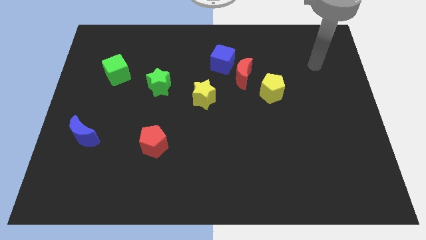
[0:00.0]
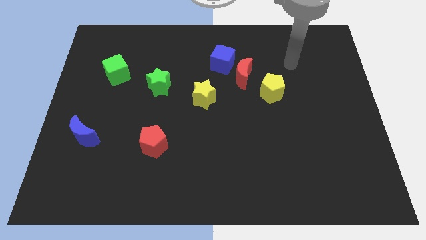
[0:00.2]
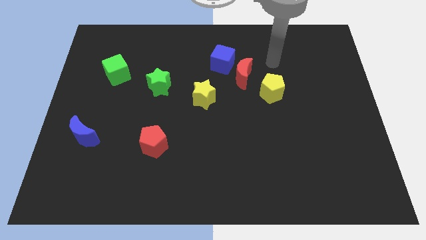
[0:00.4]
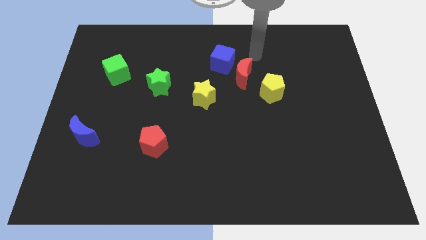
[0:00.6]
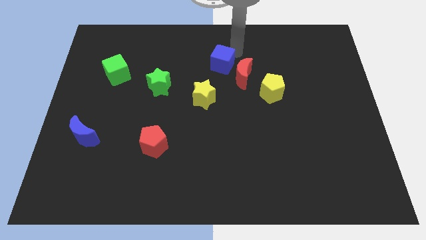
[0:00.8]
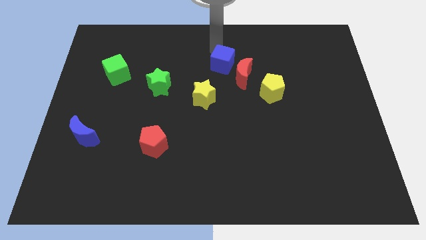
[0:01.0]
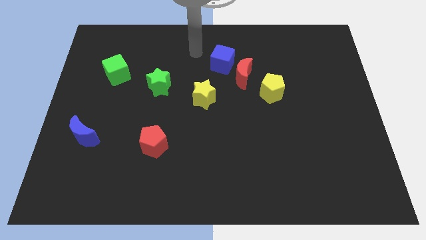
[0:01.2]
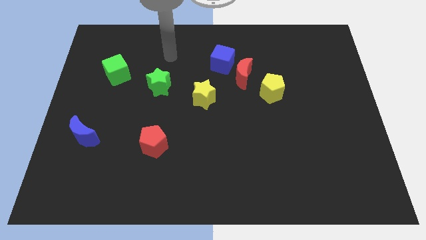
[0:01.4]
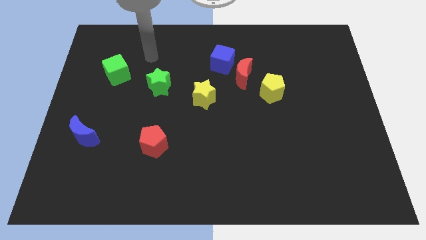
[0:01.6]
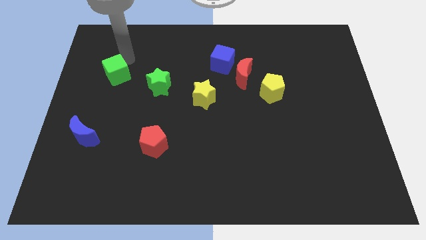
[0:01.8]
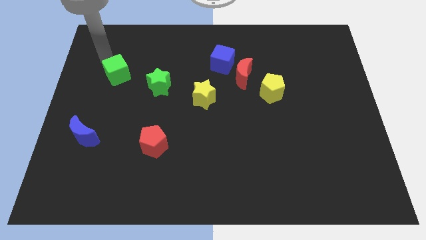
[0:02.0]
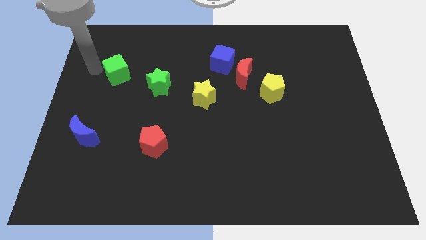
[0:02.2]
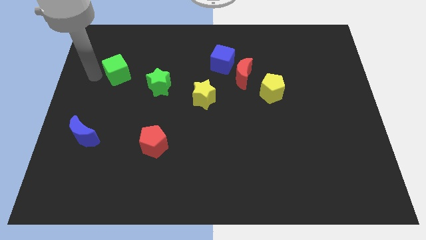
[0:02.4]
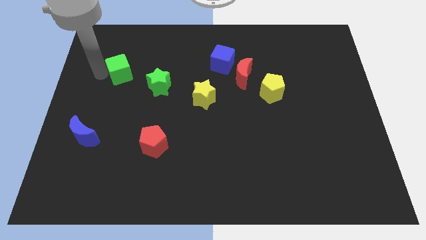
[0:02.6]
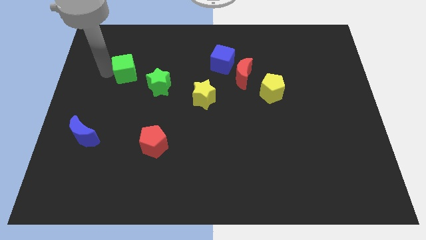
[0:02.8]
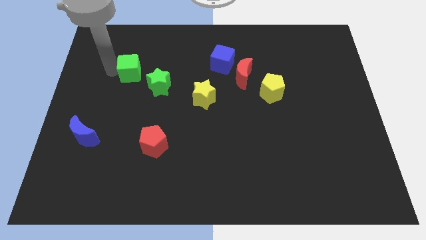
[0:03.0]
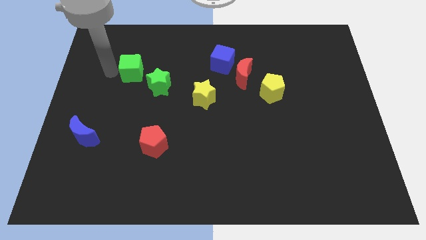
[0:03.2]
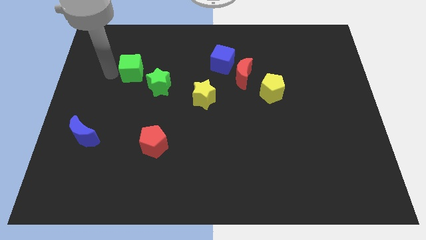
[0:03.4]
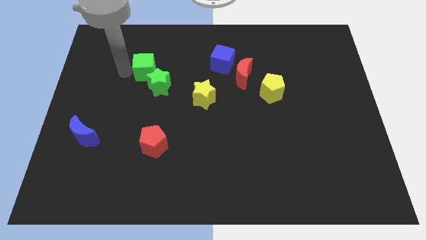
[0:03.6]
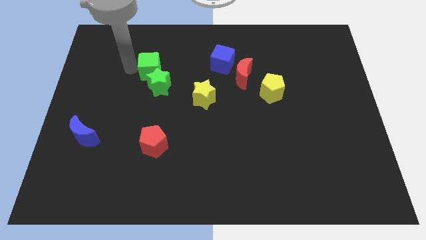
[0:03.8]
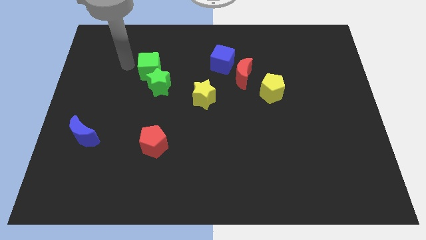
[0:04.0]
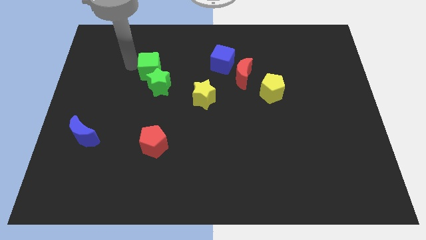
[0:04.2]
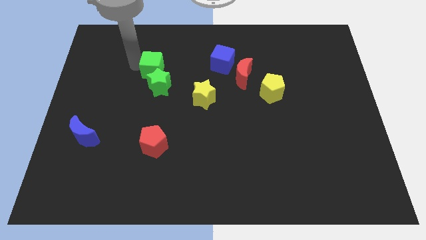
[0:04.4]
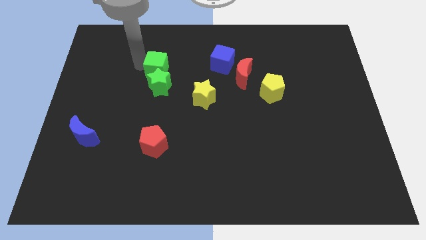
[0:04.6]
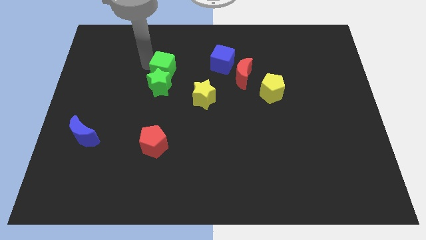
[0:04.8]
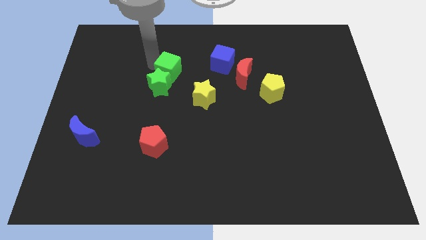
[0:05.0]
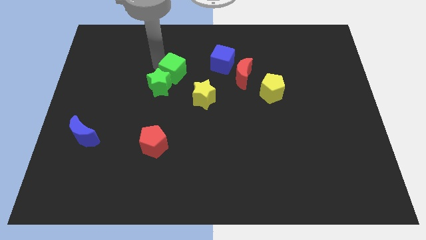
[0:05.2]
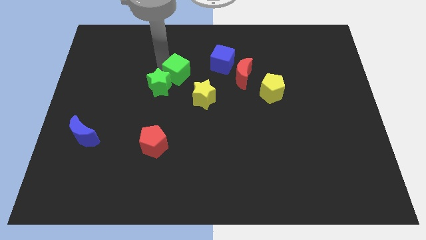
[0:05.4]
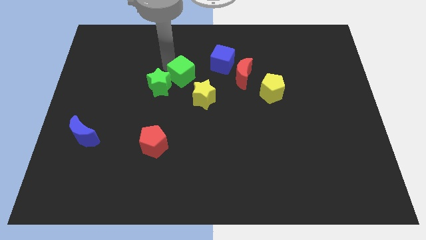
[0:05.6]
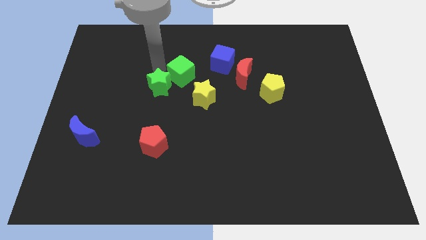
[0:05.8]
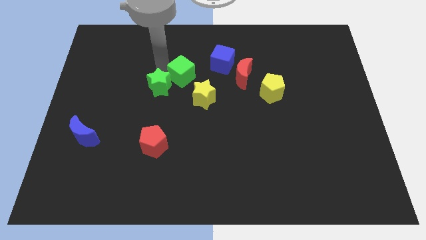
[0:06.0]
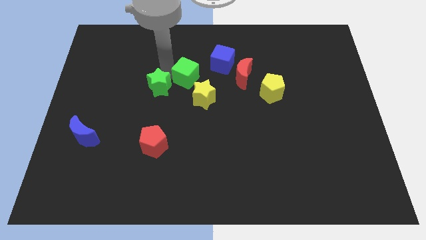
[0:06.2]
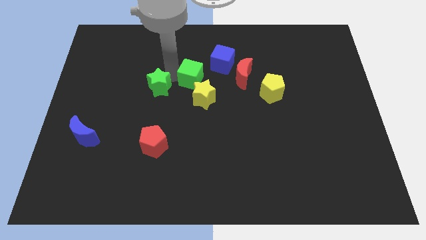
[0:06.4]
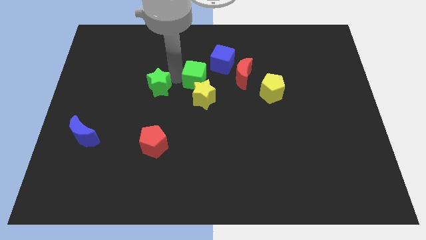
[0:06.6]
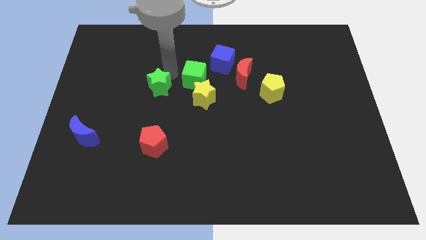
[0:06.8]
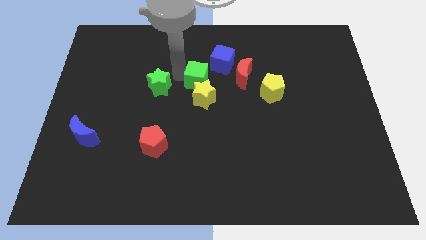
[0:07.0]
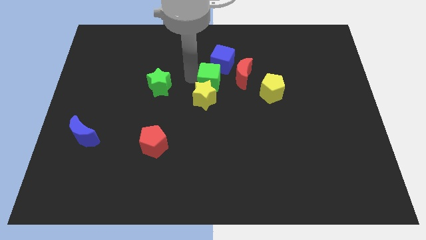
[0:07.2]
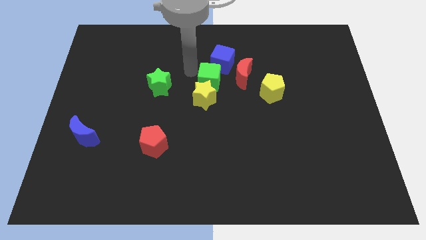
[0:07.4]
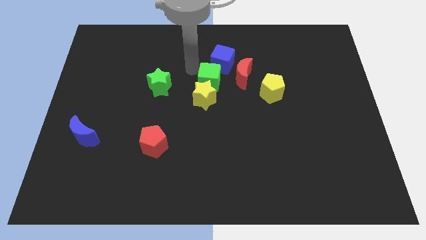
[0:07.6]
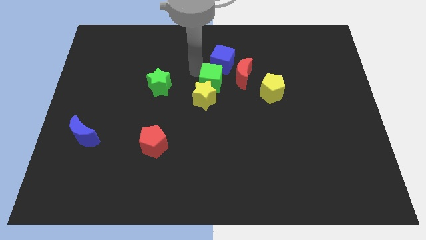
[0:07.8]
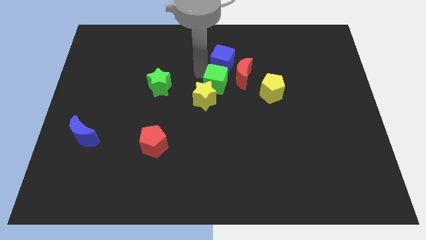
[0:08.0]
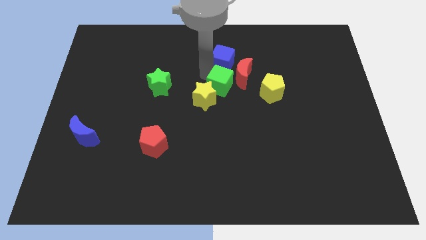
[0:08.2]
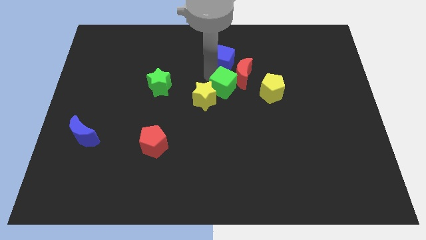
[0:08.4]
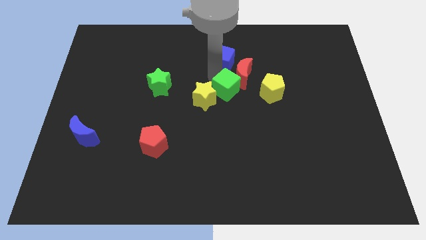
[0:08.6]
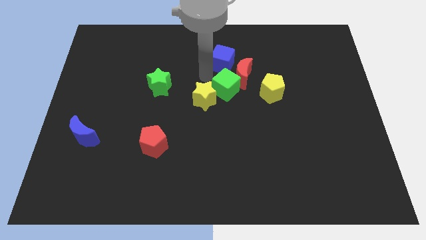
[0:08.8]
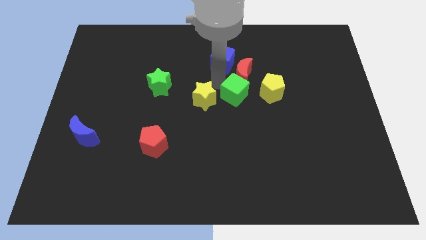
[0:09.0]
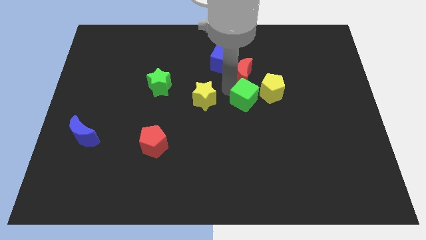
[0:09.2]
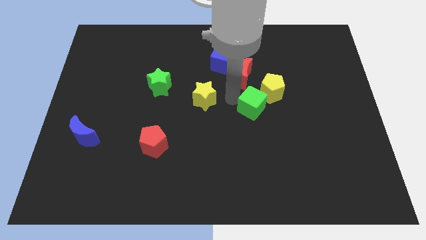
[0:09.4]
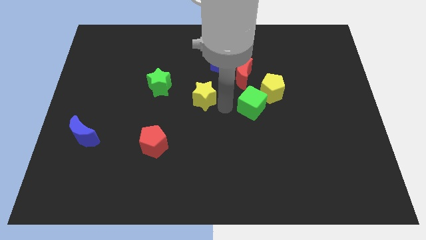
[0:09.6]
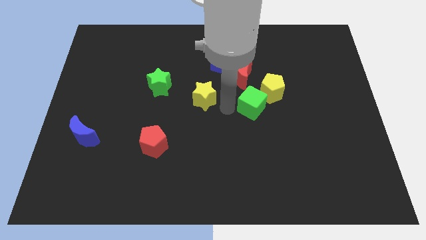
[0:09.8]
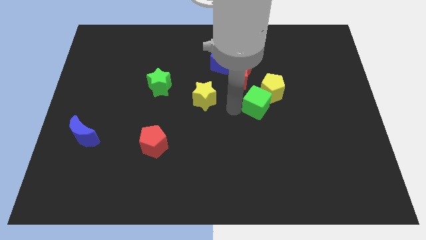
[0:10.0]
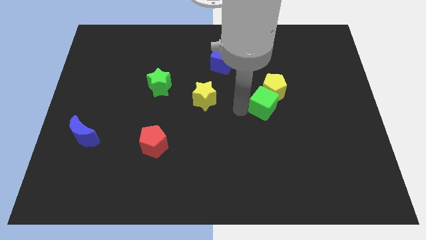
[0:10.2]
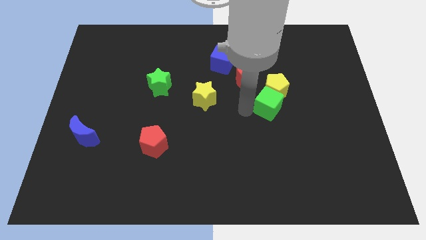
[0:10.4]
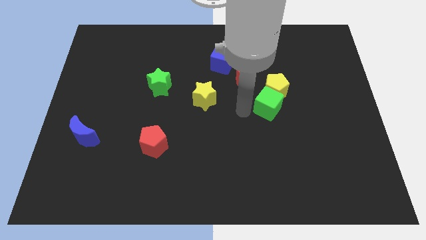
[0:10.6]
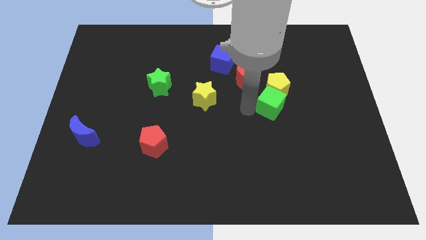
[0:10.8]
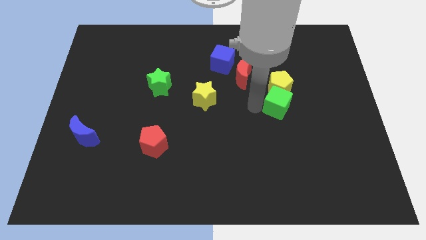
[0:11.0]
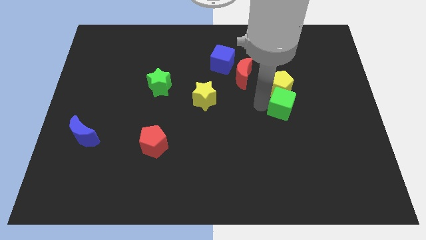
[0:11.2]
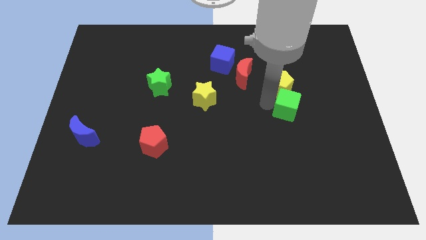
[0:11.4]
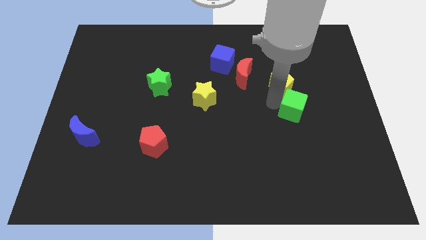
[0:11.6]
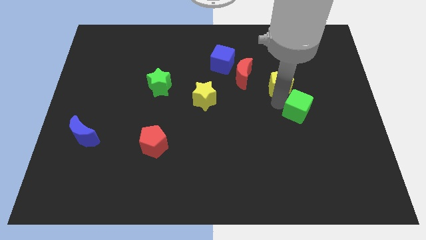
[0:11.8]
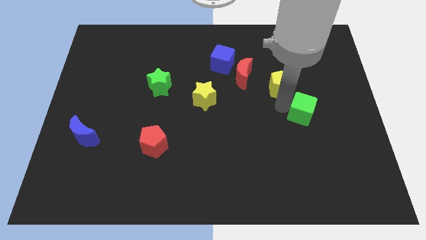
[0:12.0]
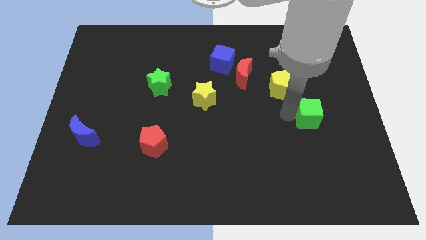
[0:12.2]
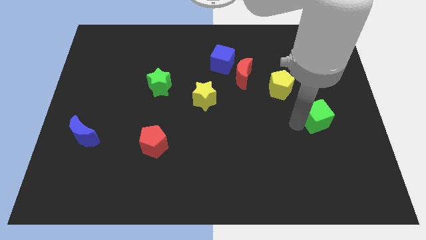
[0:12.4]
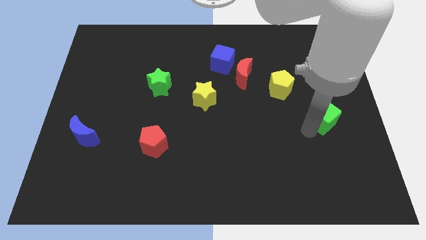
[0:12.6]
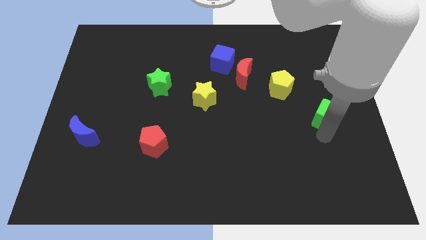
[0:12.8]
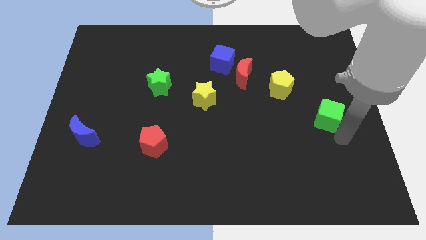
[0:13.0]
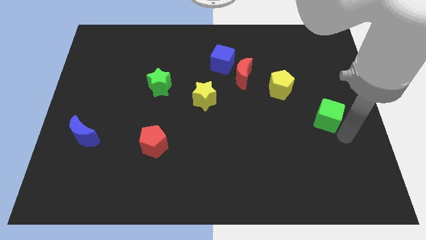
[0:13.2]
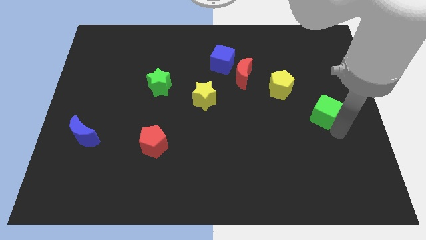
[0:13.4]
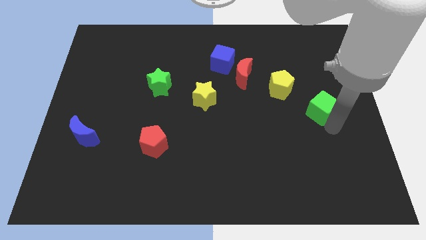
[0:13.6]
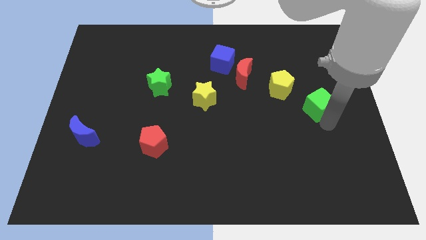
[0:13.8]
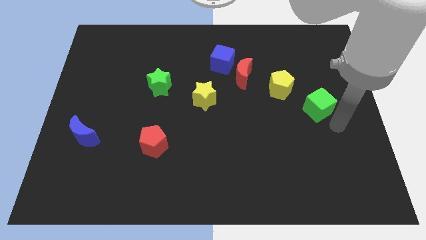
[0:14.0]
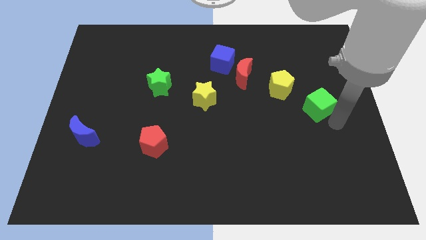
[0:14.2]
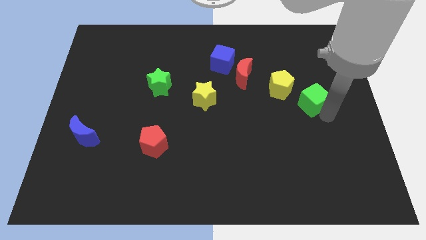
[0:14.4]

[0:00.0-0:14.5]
put the green cube to the right side of the yellow pentagon
